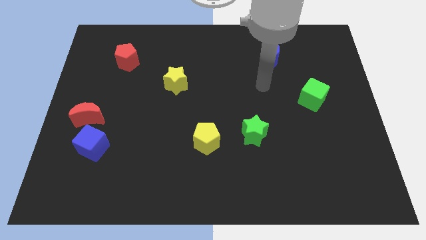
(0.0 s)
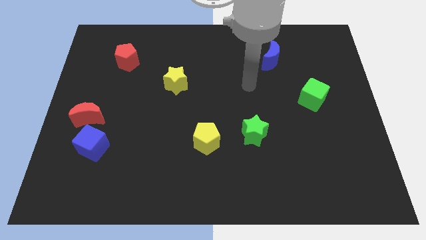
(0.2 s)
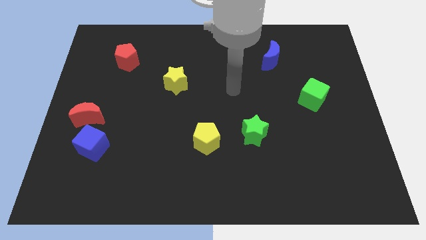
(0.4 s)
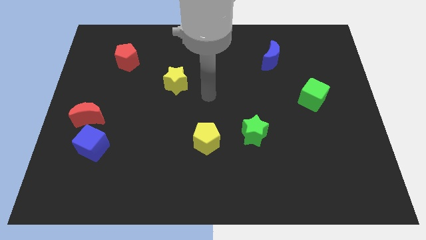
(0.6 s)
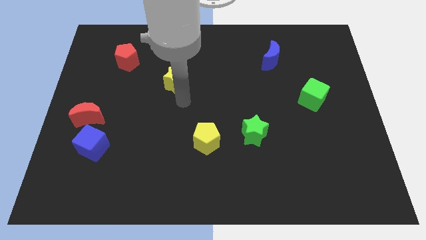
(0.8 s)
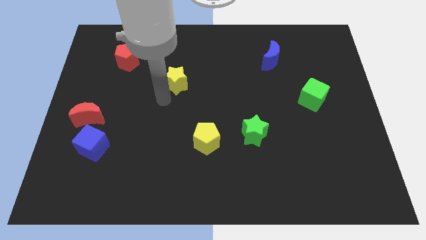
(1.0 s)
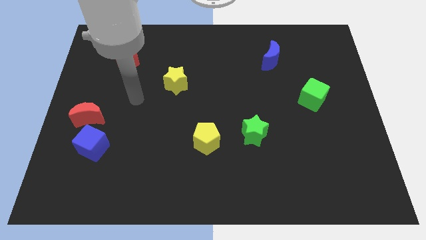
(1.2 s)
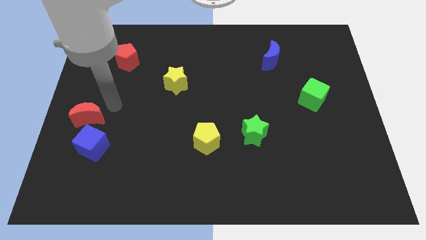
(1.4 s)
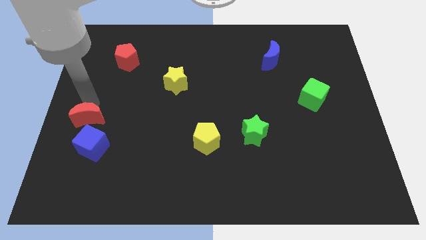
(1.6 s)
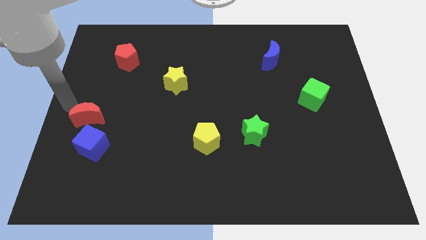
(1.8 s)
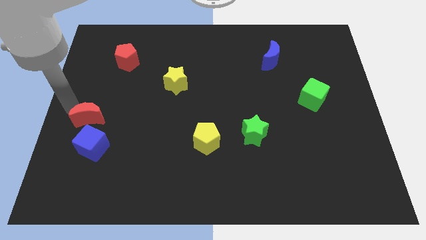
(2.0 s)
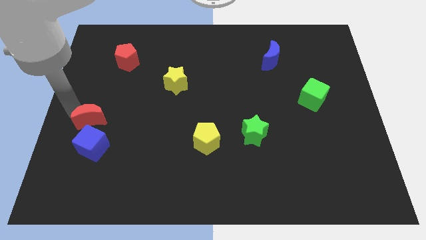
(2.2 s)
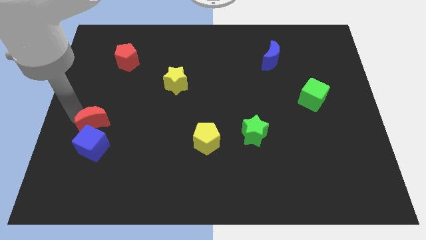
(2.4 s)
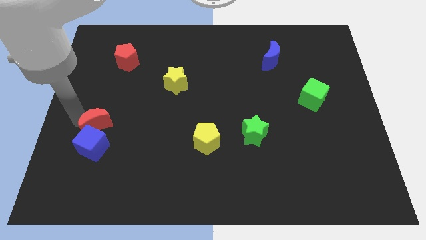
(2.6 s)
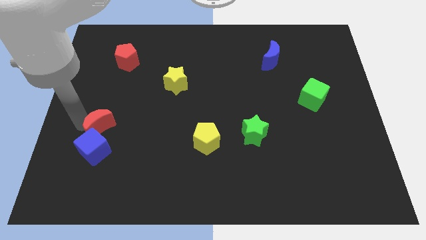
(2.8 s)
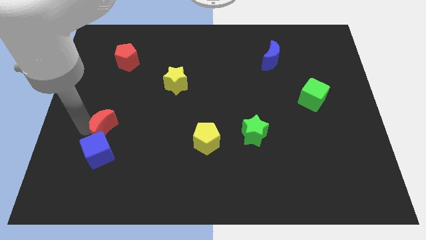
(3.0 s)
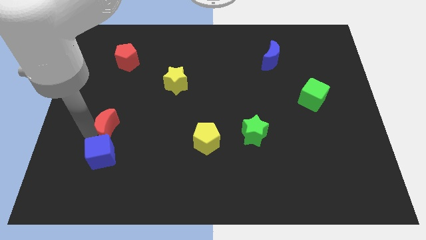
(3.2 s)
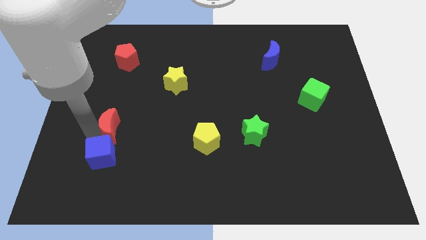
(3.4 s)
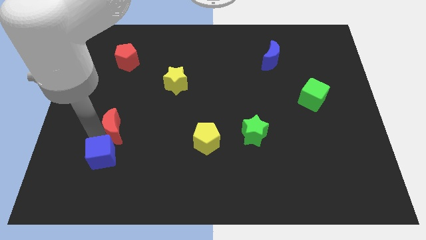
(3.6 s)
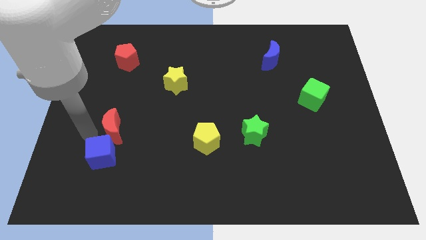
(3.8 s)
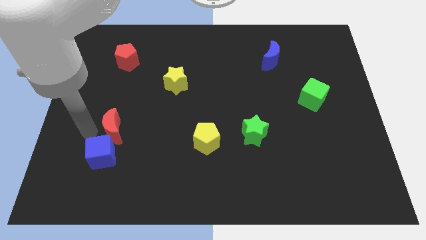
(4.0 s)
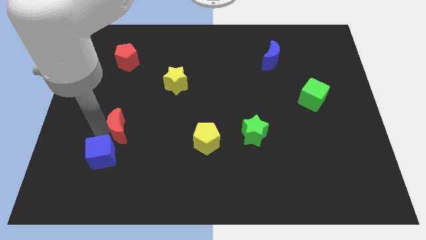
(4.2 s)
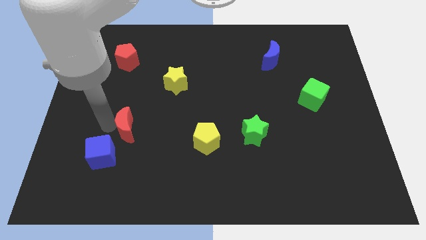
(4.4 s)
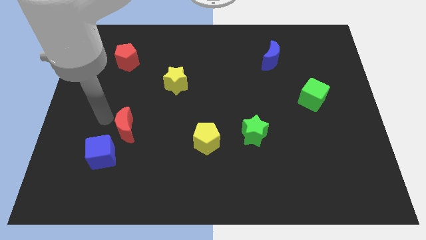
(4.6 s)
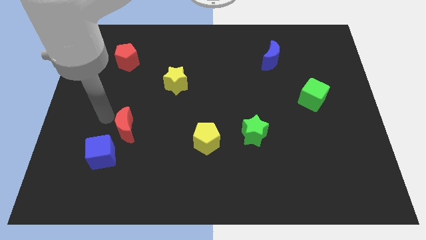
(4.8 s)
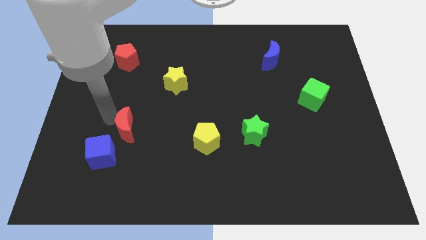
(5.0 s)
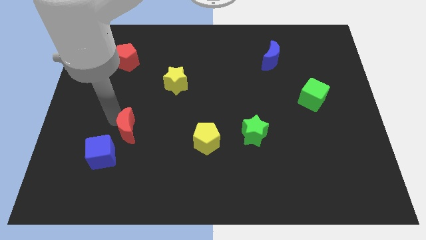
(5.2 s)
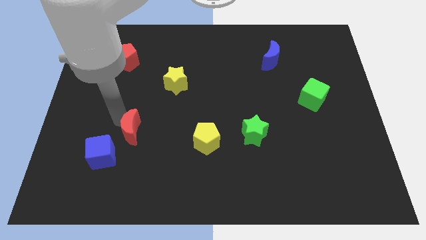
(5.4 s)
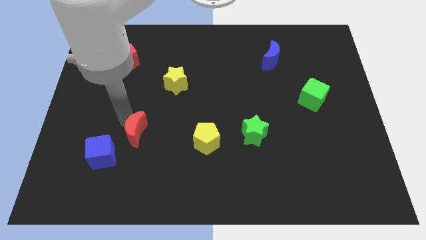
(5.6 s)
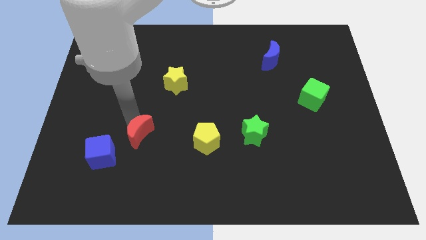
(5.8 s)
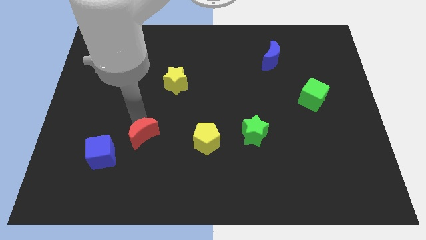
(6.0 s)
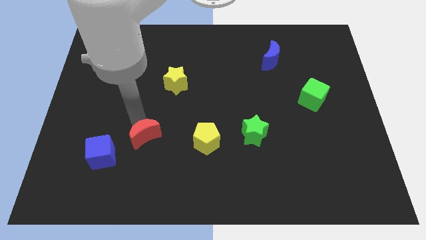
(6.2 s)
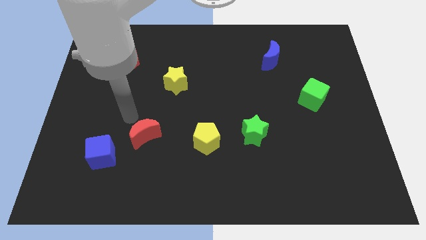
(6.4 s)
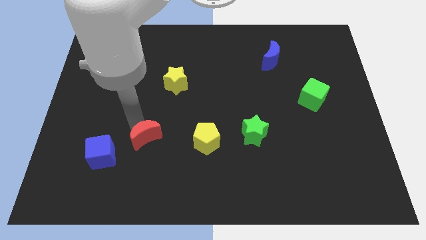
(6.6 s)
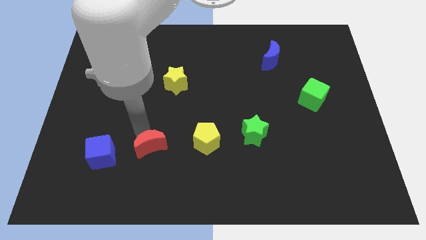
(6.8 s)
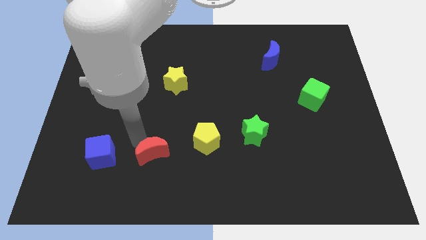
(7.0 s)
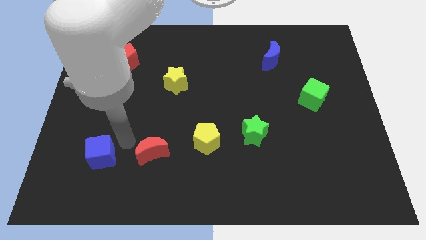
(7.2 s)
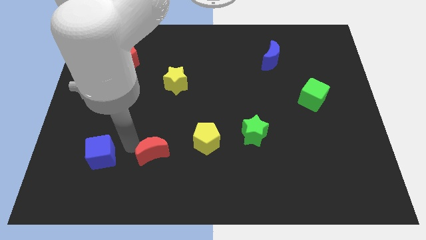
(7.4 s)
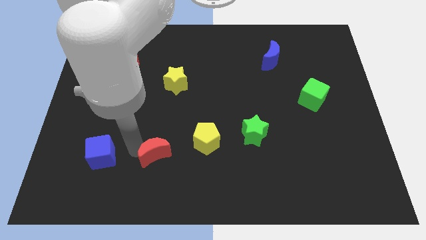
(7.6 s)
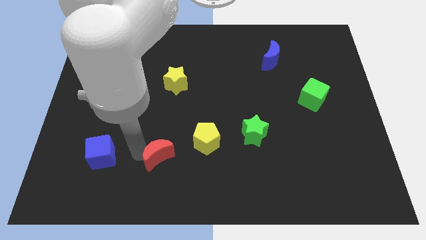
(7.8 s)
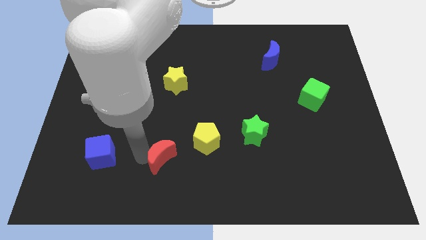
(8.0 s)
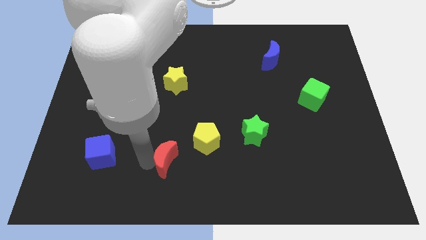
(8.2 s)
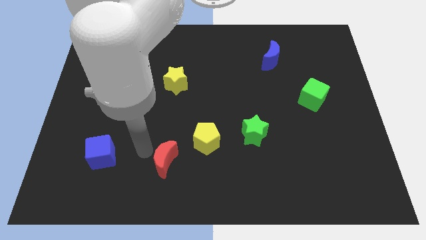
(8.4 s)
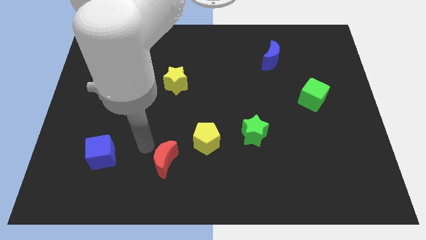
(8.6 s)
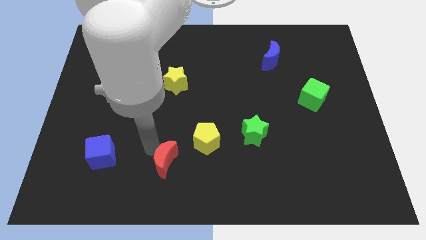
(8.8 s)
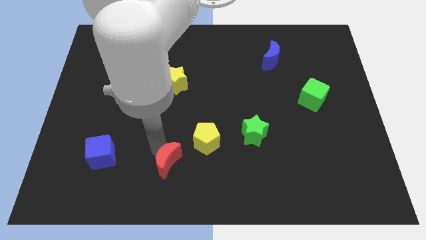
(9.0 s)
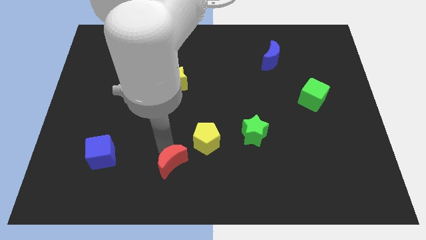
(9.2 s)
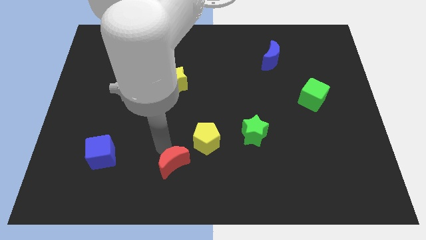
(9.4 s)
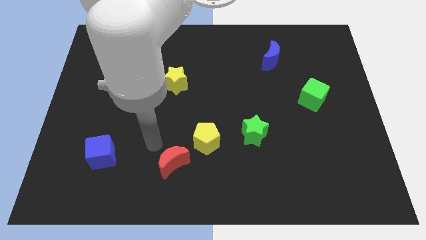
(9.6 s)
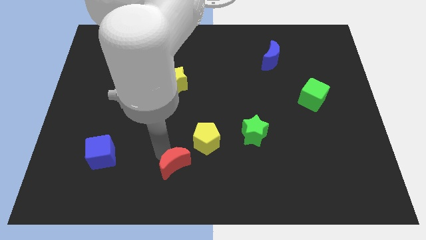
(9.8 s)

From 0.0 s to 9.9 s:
put the red moon to the bottom side

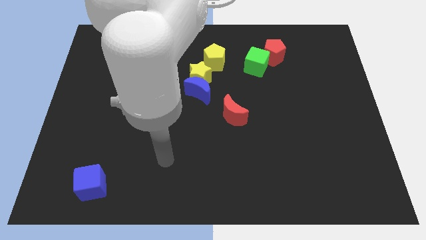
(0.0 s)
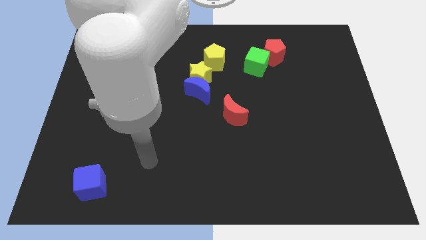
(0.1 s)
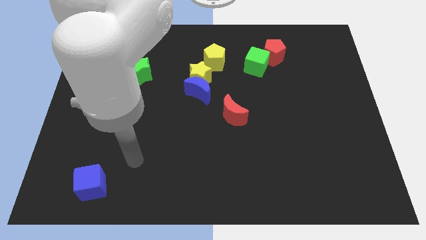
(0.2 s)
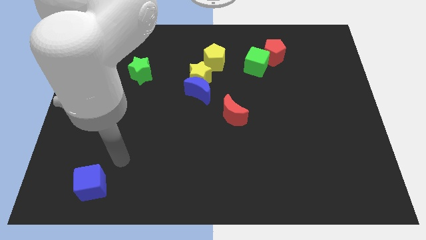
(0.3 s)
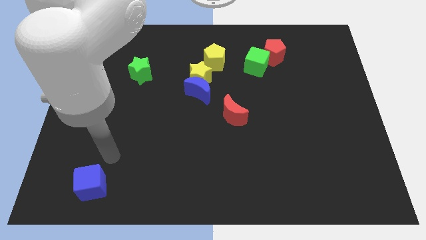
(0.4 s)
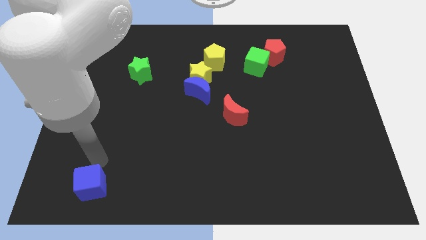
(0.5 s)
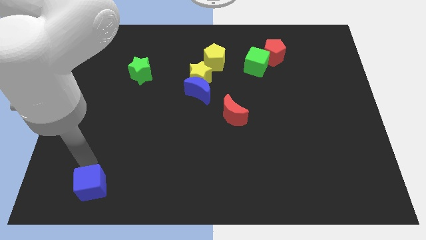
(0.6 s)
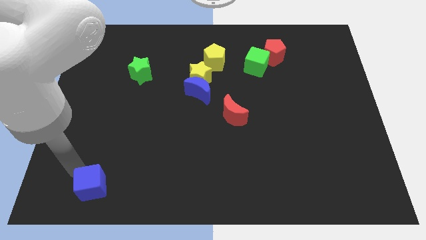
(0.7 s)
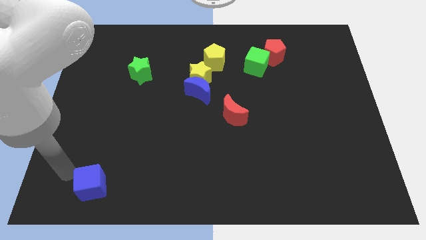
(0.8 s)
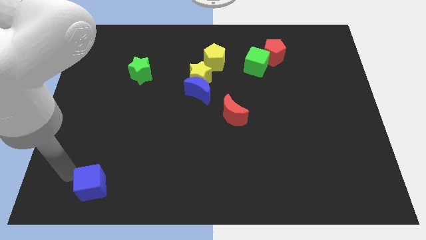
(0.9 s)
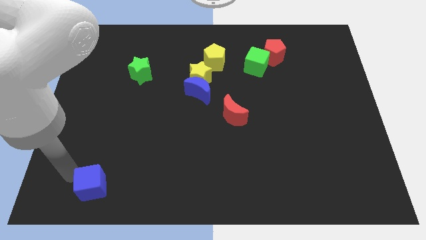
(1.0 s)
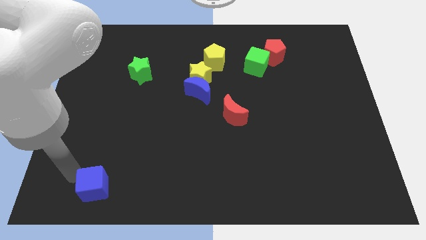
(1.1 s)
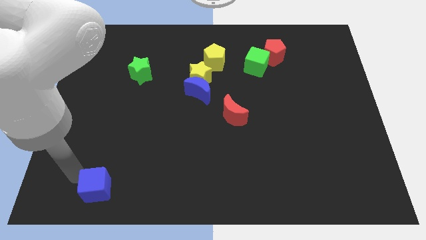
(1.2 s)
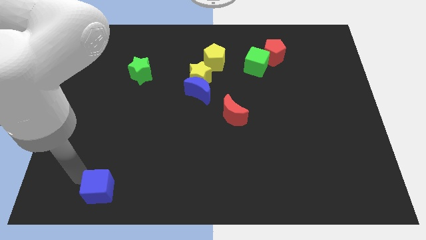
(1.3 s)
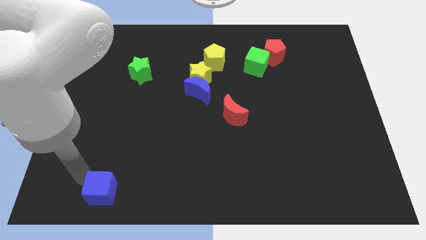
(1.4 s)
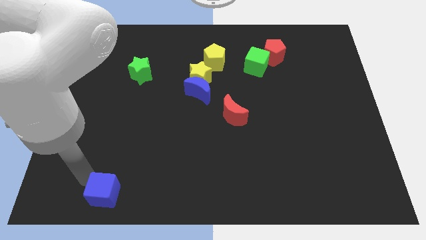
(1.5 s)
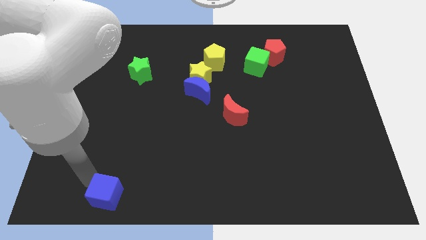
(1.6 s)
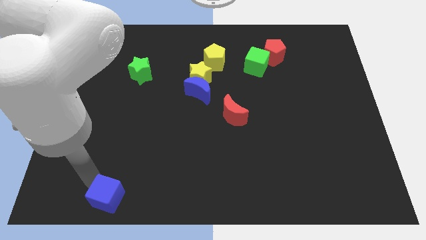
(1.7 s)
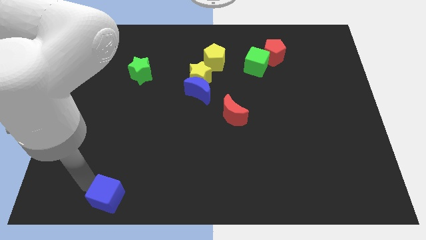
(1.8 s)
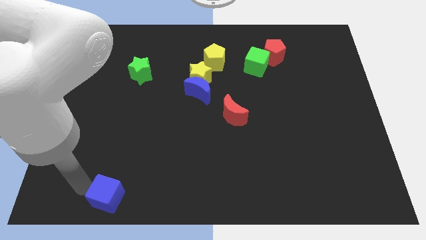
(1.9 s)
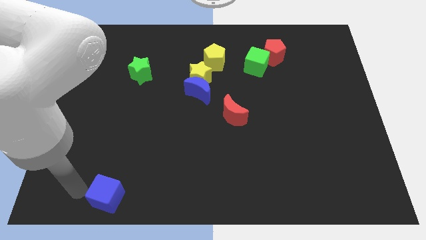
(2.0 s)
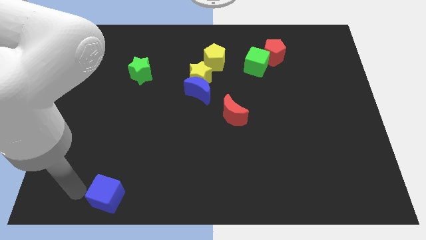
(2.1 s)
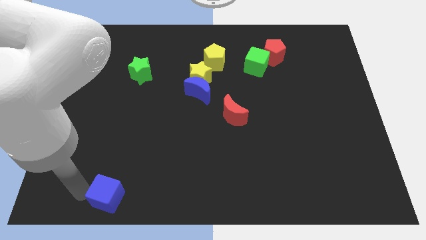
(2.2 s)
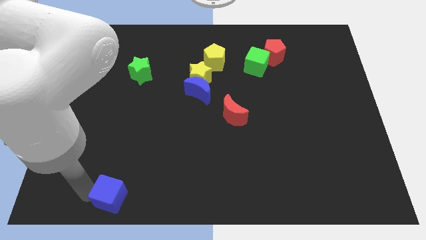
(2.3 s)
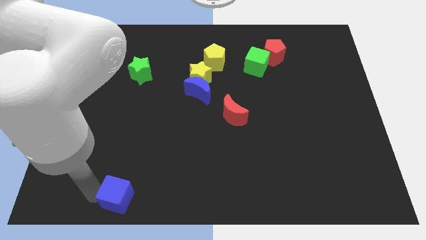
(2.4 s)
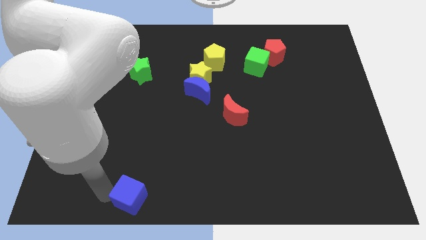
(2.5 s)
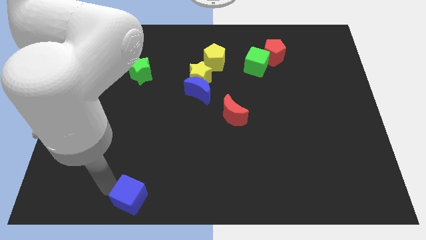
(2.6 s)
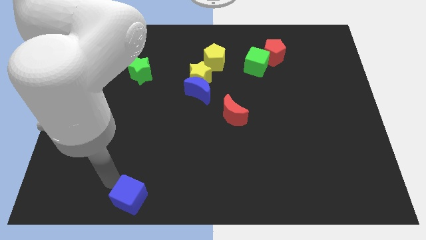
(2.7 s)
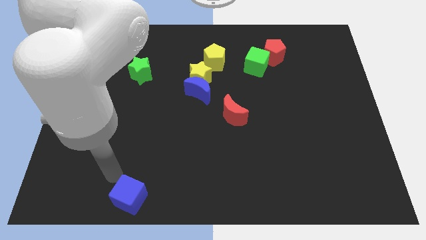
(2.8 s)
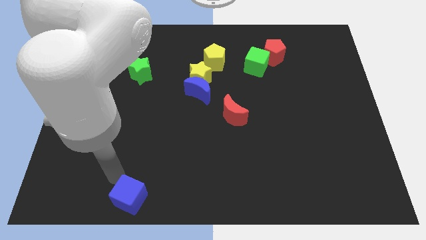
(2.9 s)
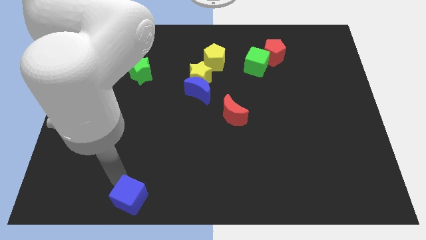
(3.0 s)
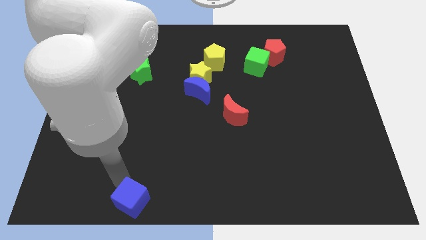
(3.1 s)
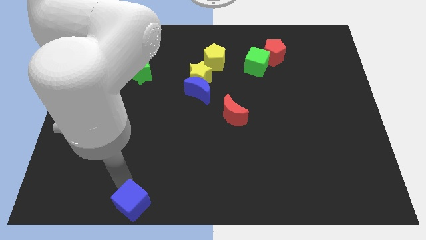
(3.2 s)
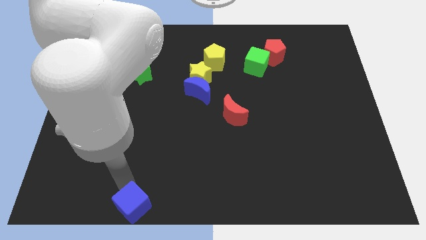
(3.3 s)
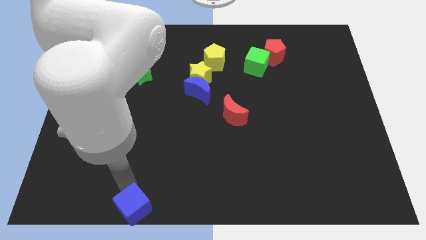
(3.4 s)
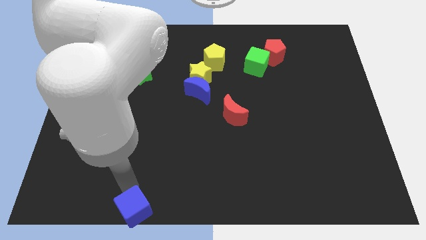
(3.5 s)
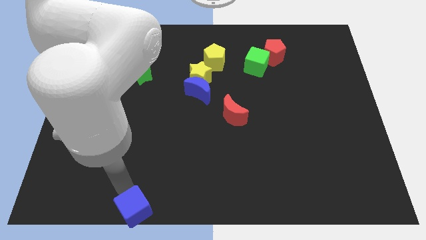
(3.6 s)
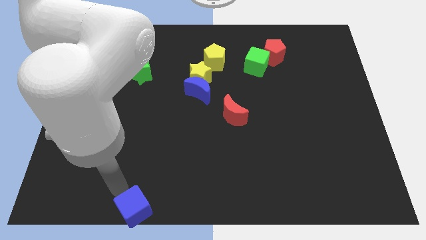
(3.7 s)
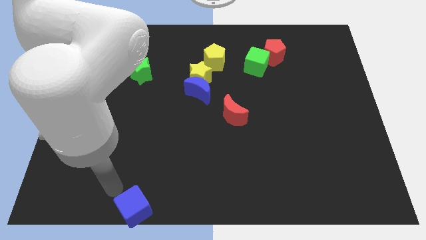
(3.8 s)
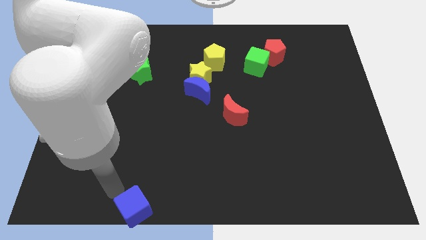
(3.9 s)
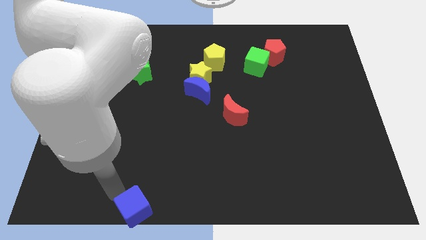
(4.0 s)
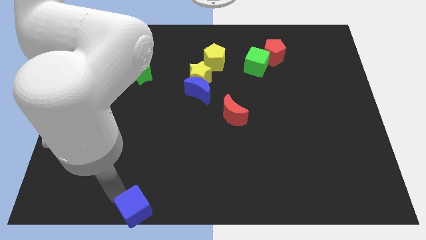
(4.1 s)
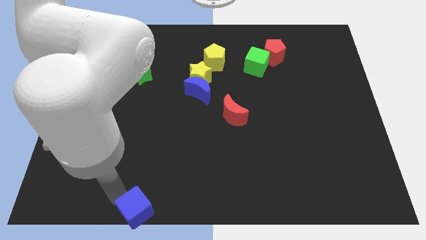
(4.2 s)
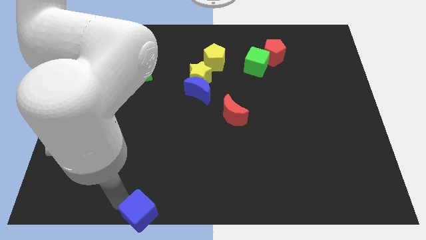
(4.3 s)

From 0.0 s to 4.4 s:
put the blue cube to the bottom side
